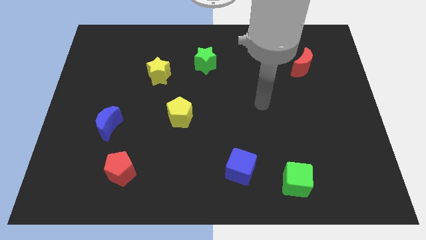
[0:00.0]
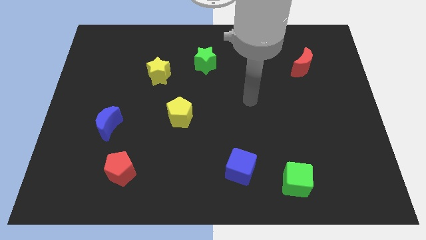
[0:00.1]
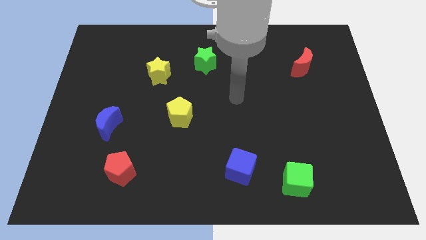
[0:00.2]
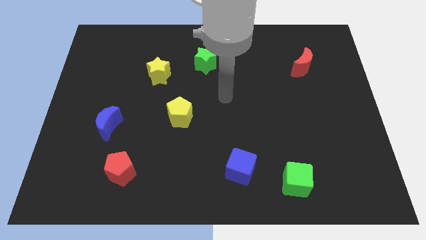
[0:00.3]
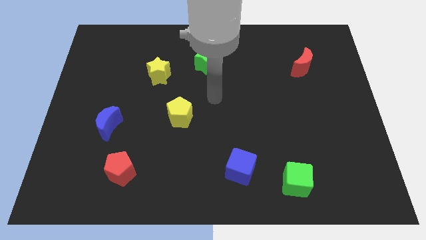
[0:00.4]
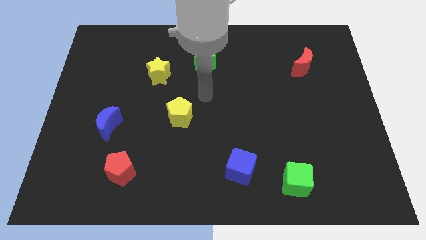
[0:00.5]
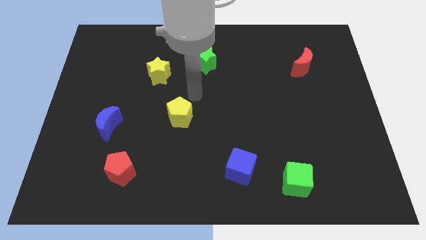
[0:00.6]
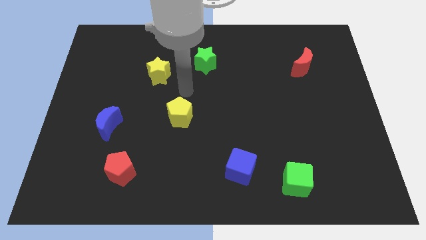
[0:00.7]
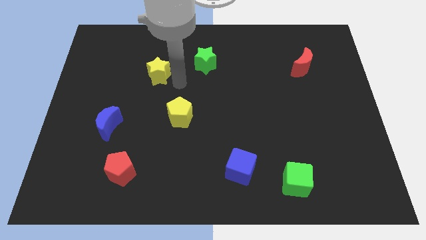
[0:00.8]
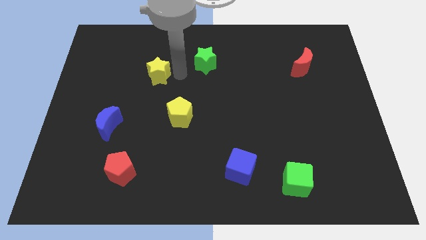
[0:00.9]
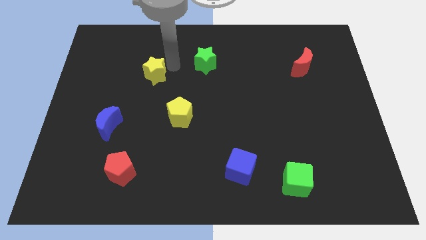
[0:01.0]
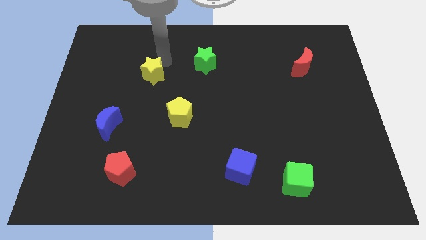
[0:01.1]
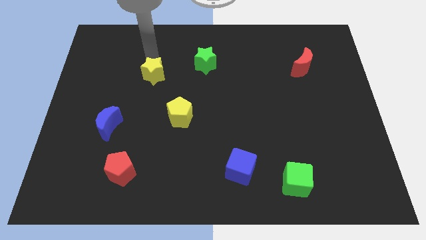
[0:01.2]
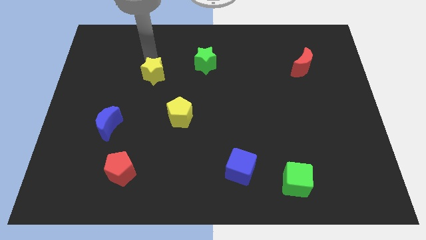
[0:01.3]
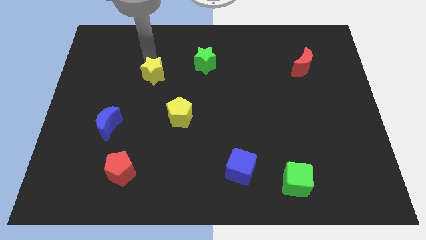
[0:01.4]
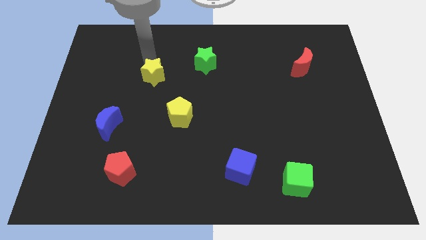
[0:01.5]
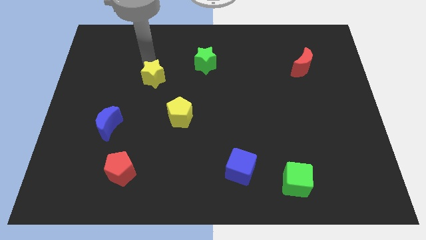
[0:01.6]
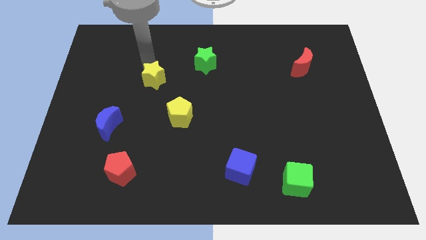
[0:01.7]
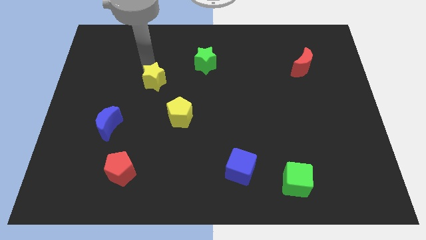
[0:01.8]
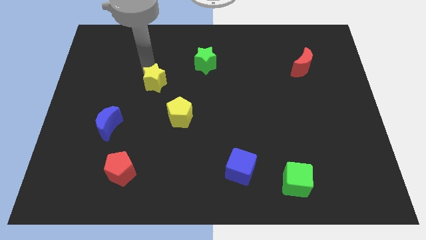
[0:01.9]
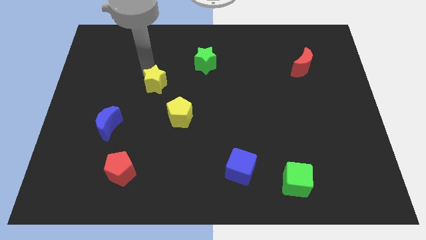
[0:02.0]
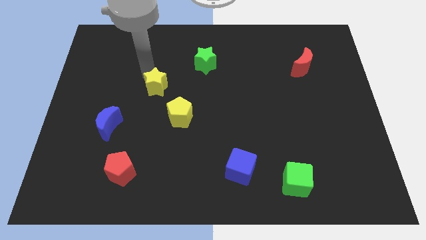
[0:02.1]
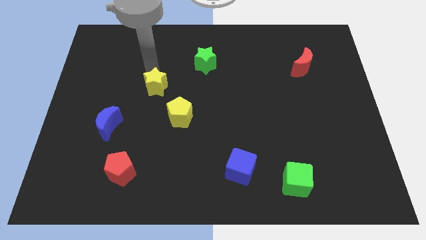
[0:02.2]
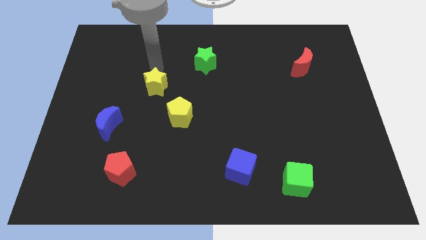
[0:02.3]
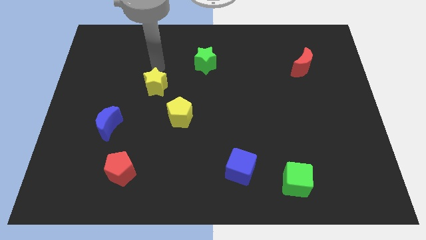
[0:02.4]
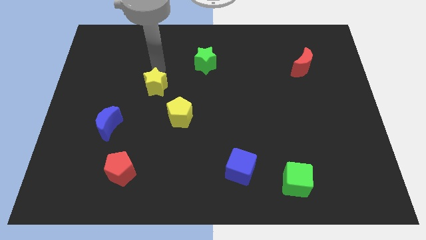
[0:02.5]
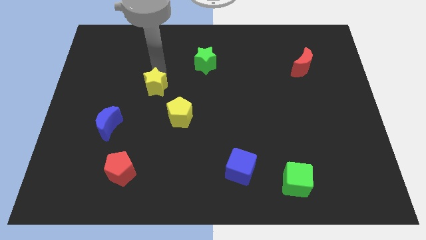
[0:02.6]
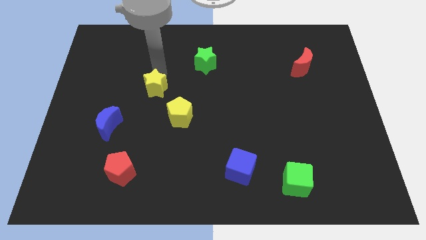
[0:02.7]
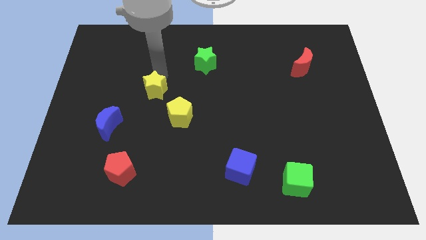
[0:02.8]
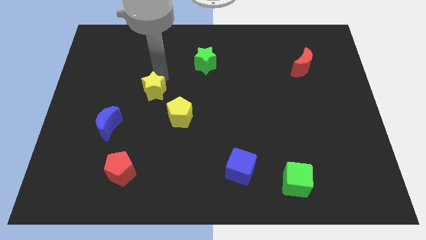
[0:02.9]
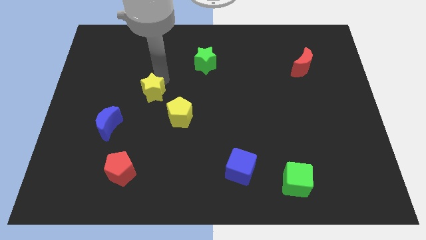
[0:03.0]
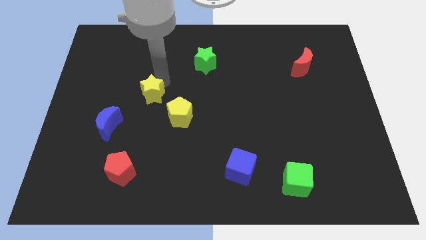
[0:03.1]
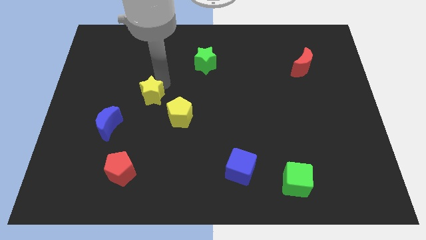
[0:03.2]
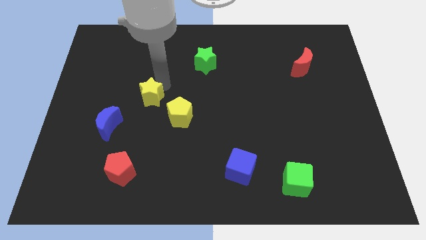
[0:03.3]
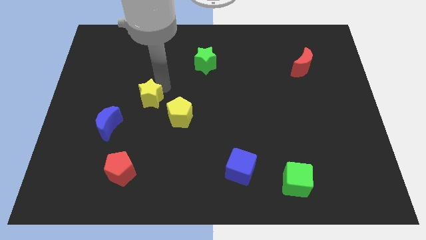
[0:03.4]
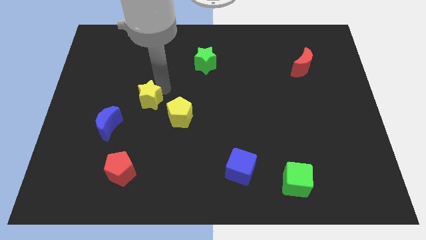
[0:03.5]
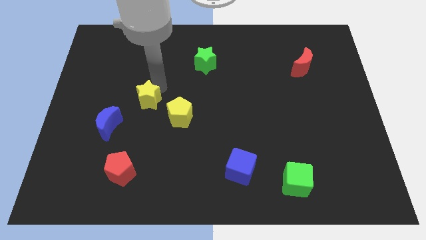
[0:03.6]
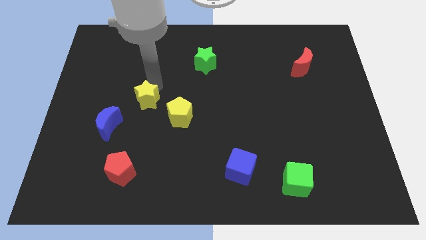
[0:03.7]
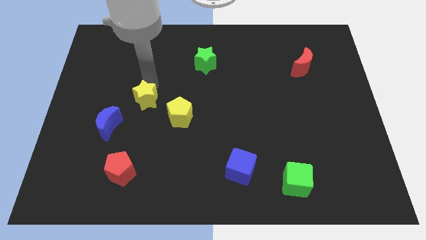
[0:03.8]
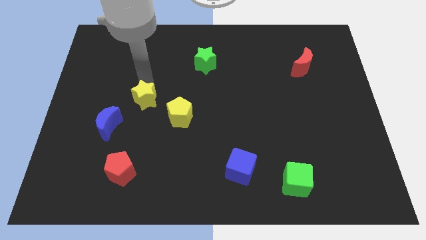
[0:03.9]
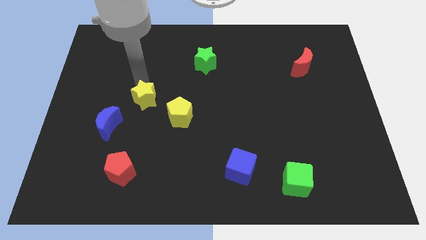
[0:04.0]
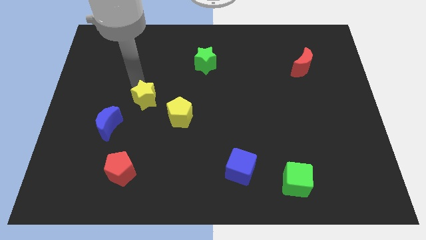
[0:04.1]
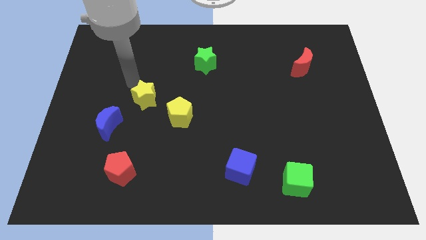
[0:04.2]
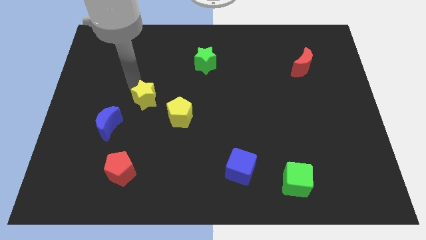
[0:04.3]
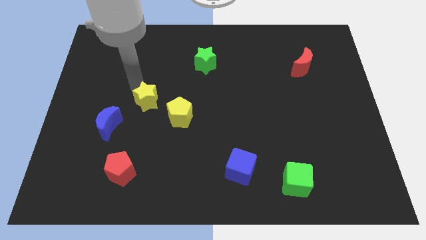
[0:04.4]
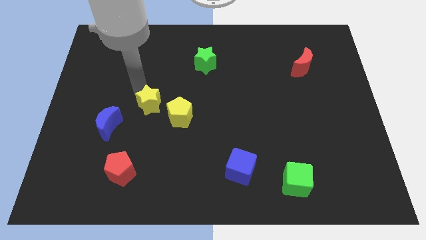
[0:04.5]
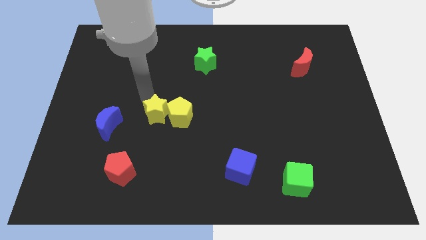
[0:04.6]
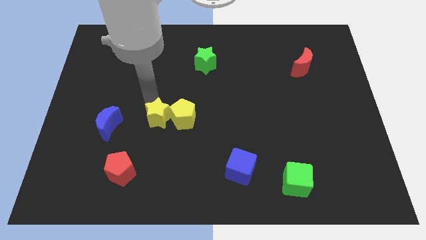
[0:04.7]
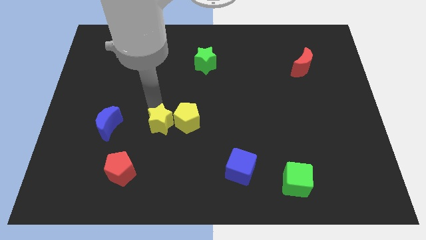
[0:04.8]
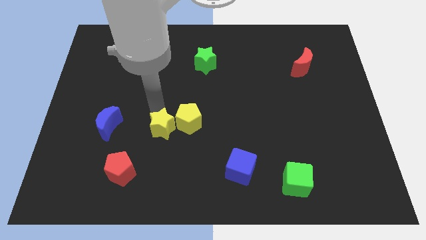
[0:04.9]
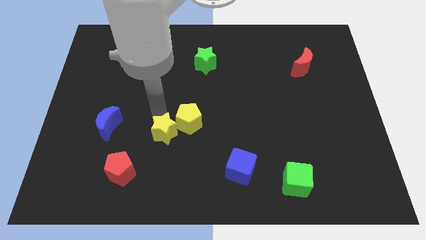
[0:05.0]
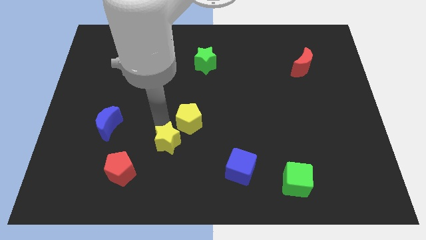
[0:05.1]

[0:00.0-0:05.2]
put the yellow star to the bottom of the yellow pentagon

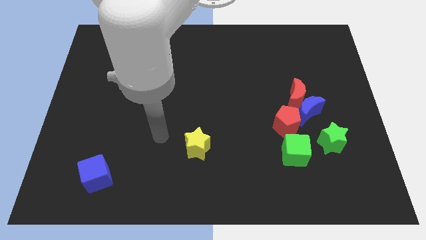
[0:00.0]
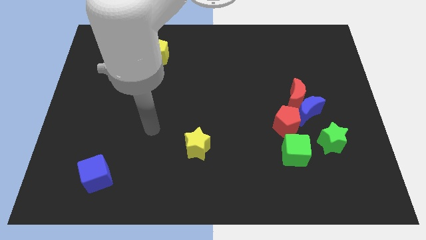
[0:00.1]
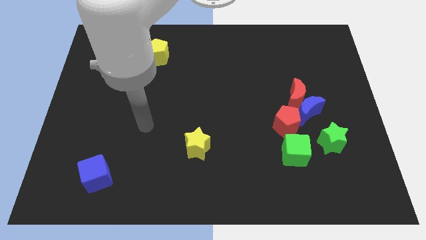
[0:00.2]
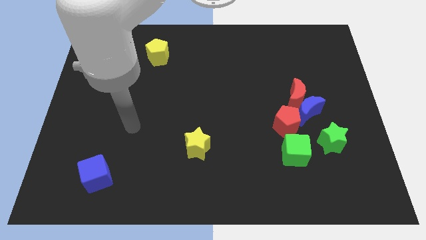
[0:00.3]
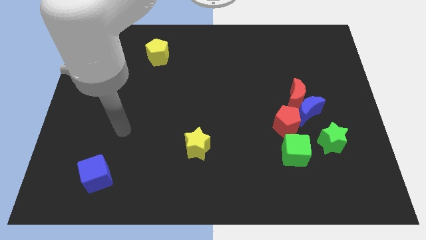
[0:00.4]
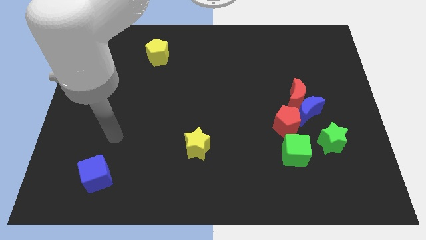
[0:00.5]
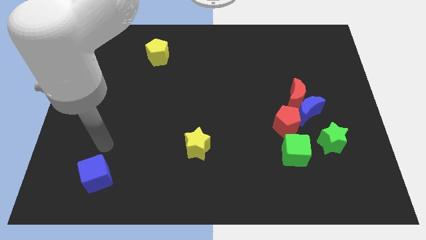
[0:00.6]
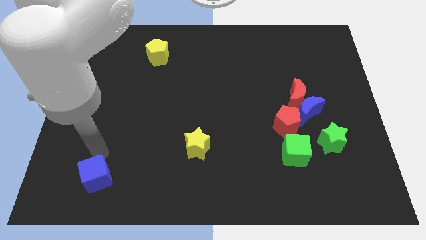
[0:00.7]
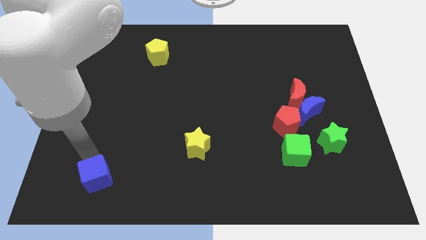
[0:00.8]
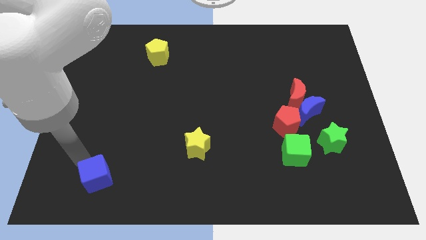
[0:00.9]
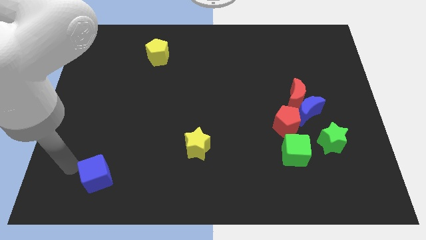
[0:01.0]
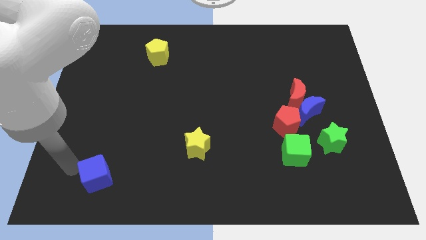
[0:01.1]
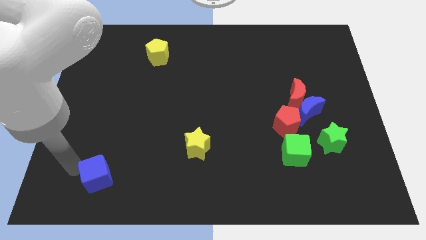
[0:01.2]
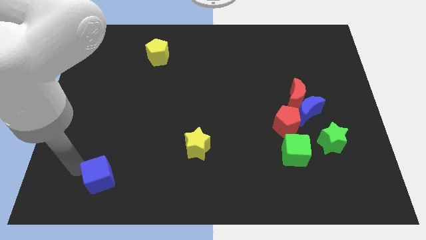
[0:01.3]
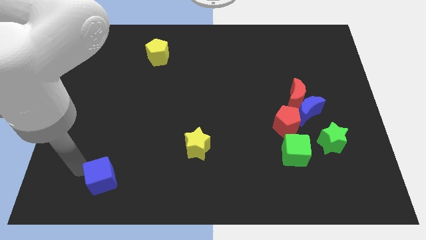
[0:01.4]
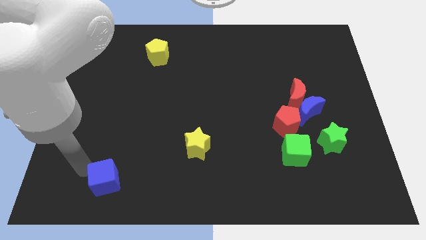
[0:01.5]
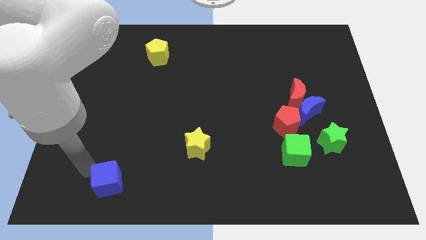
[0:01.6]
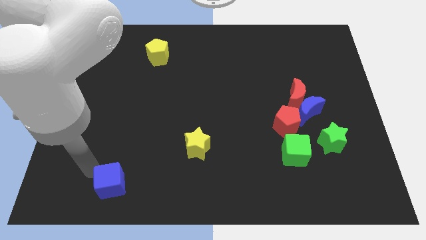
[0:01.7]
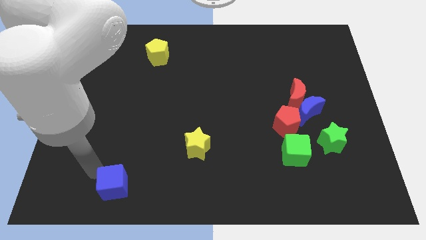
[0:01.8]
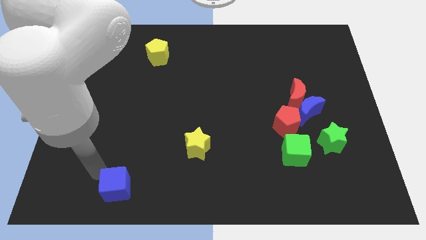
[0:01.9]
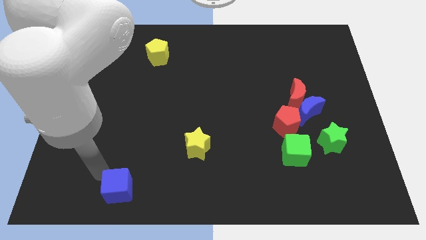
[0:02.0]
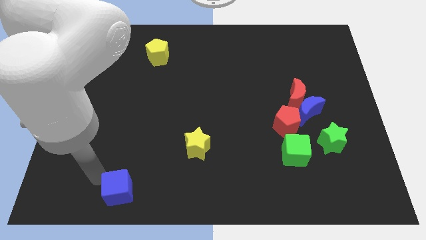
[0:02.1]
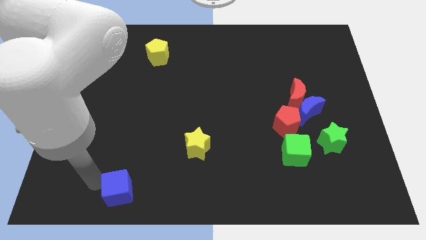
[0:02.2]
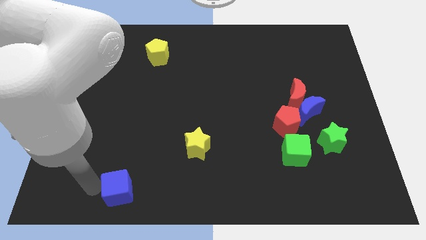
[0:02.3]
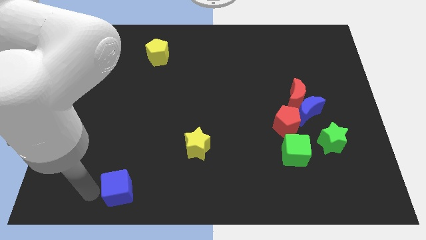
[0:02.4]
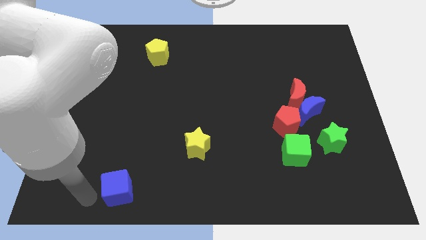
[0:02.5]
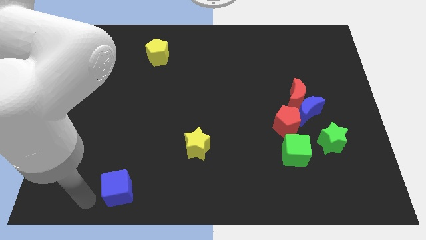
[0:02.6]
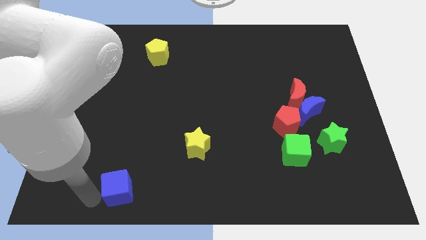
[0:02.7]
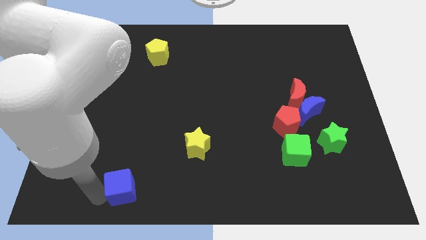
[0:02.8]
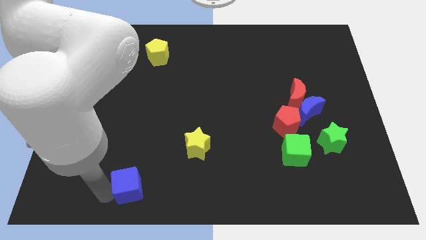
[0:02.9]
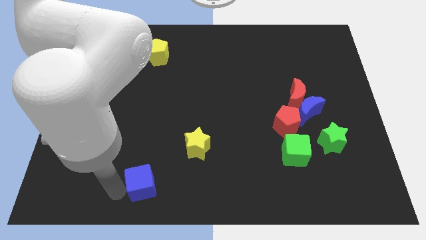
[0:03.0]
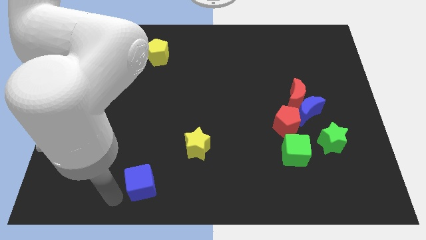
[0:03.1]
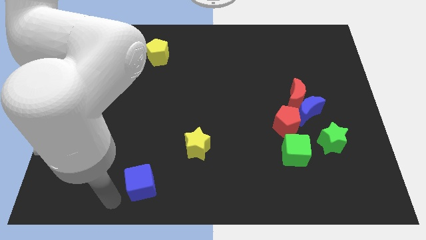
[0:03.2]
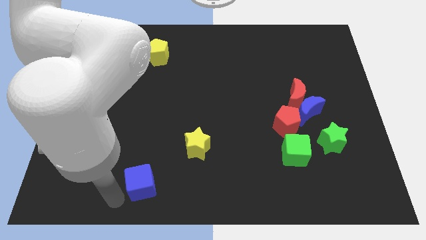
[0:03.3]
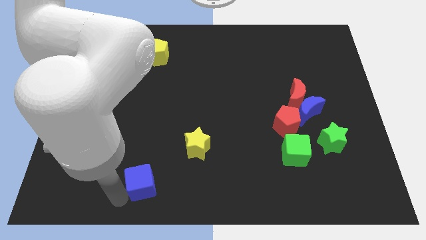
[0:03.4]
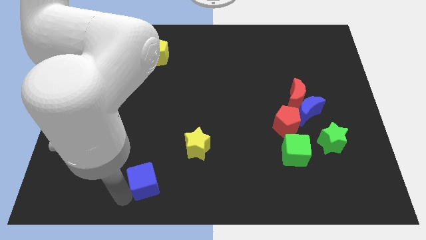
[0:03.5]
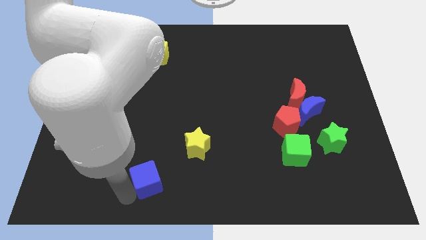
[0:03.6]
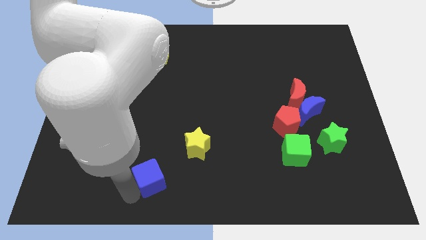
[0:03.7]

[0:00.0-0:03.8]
push the blue cube to the bottom left side of the yellow star
